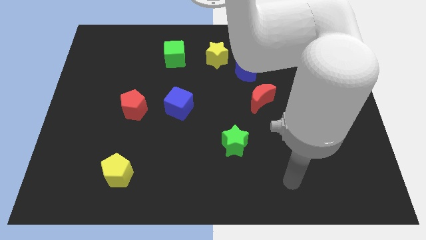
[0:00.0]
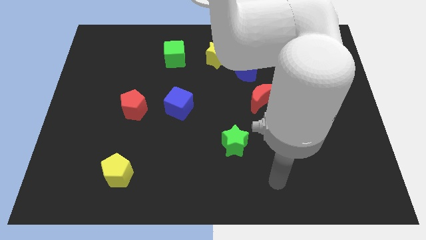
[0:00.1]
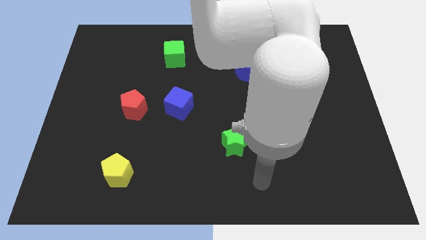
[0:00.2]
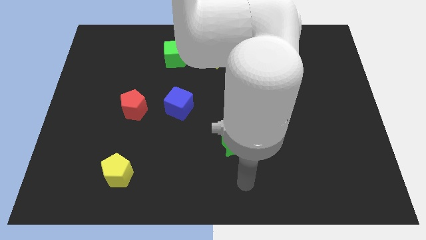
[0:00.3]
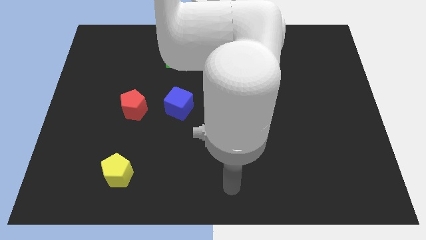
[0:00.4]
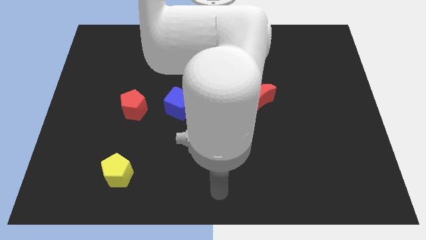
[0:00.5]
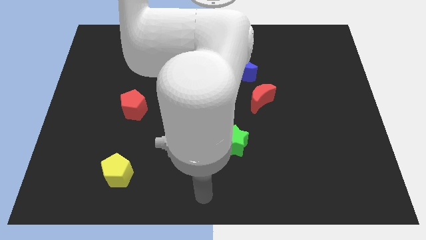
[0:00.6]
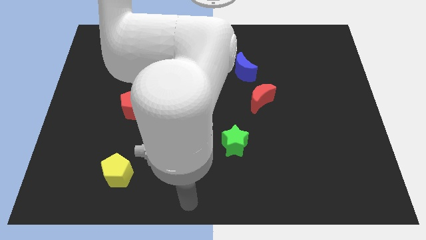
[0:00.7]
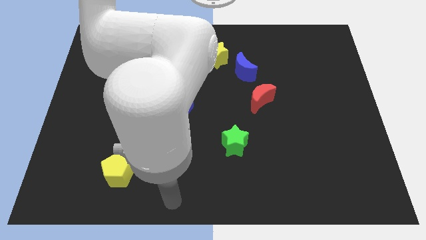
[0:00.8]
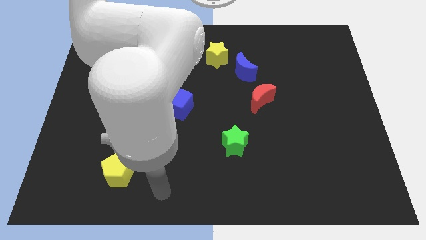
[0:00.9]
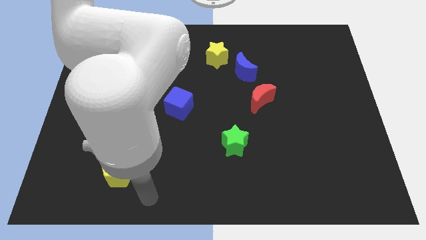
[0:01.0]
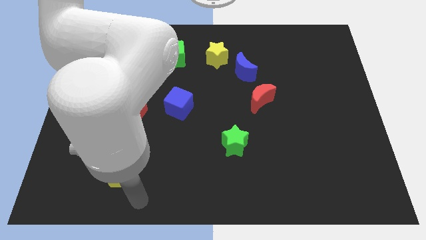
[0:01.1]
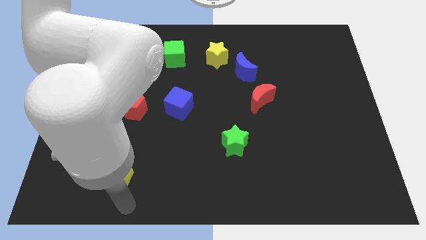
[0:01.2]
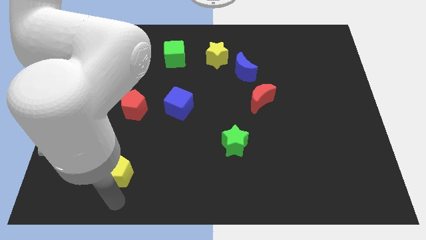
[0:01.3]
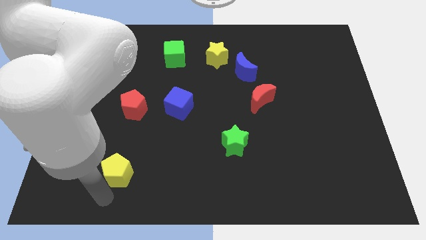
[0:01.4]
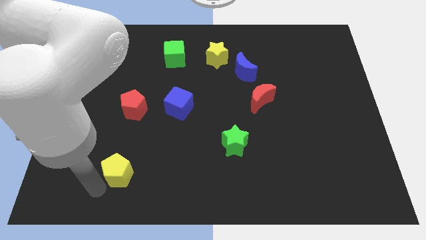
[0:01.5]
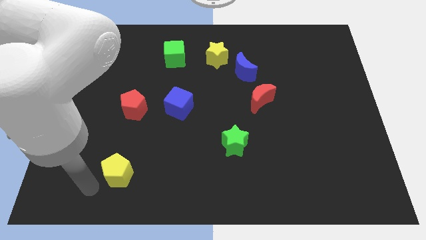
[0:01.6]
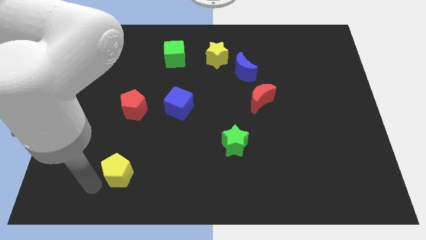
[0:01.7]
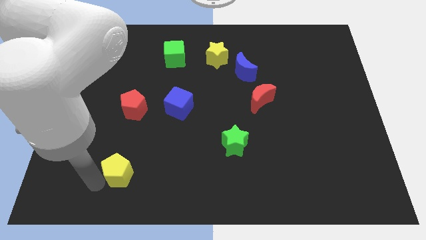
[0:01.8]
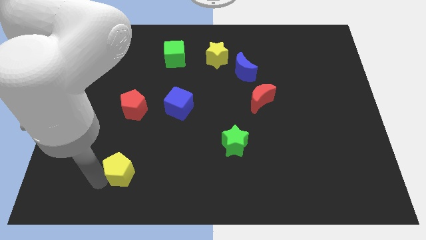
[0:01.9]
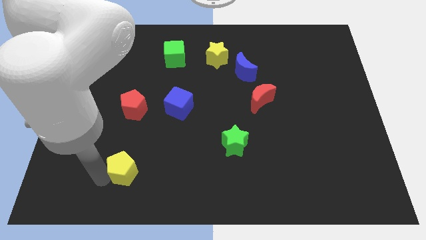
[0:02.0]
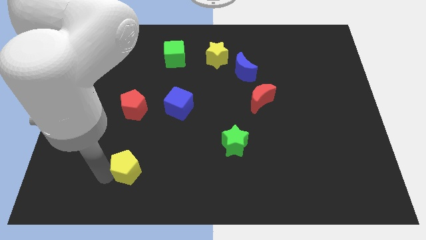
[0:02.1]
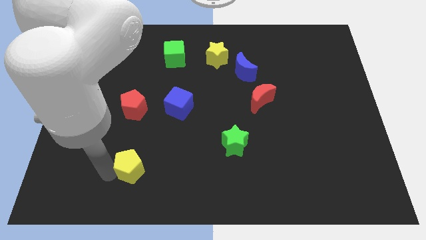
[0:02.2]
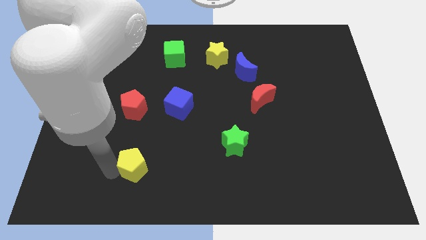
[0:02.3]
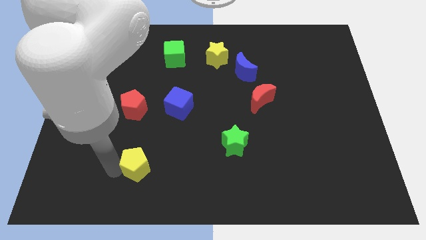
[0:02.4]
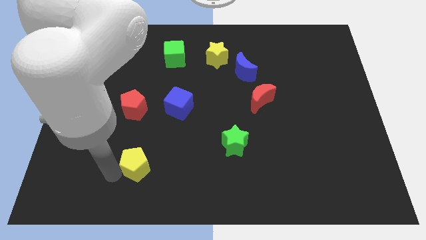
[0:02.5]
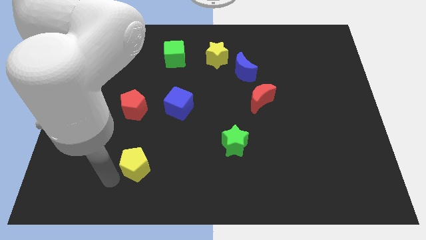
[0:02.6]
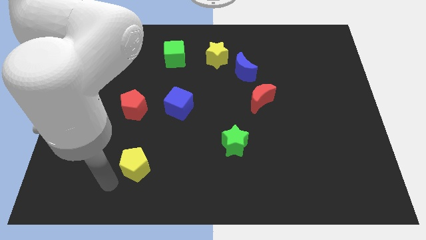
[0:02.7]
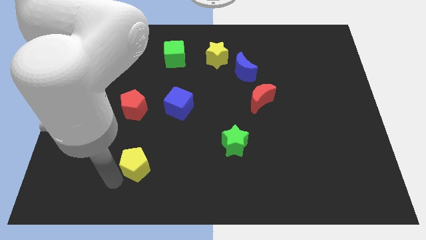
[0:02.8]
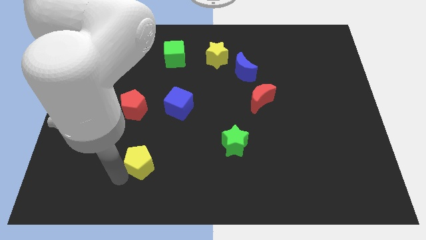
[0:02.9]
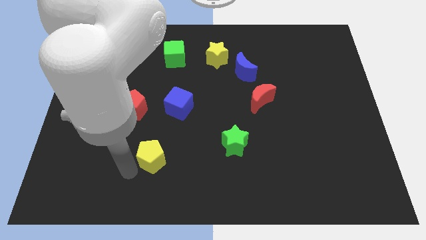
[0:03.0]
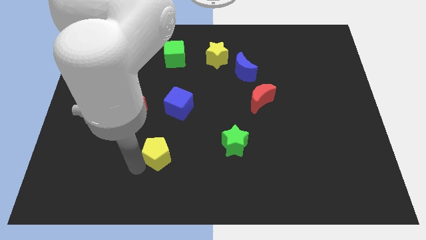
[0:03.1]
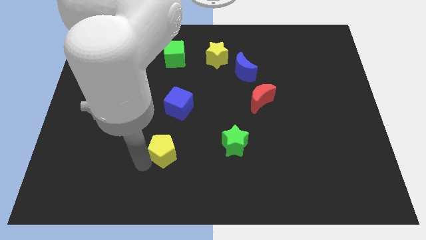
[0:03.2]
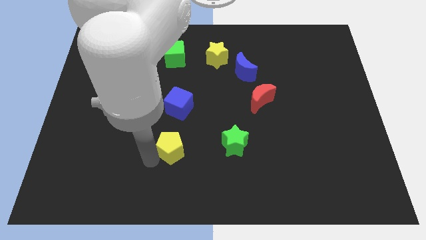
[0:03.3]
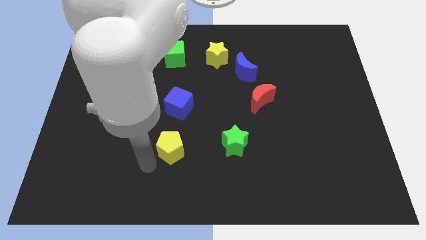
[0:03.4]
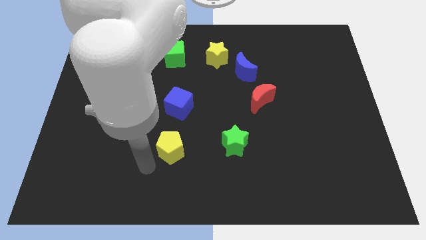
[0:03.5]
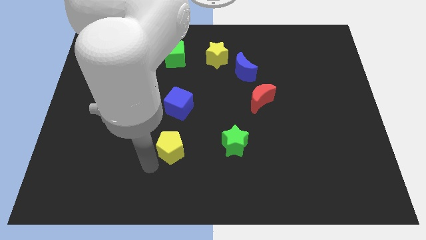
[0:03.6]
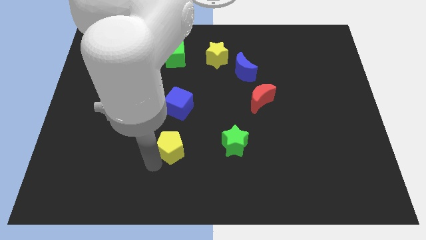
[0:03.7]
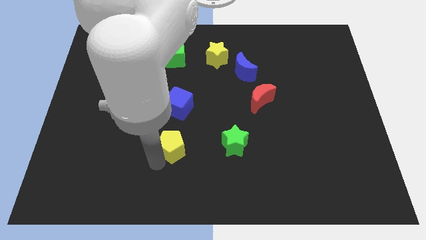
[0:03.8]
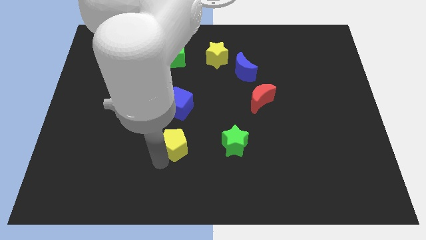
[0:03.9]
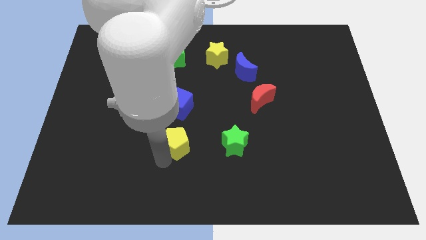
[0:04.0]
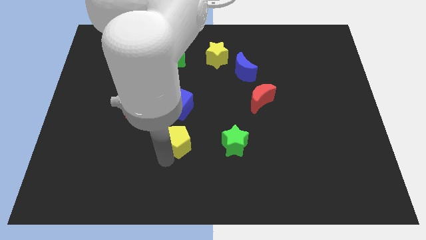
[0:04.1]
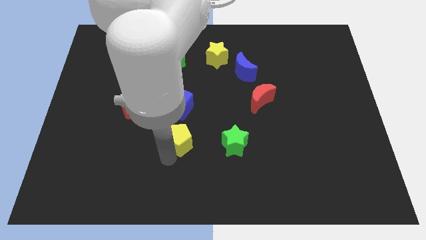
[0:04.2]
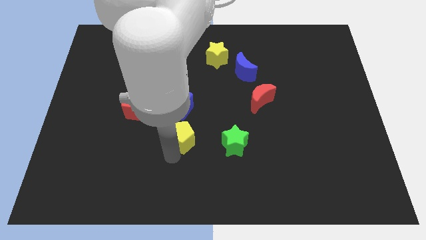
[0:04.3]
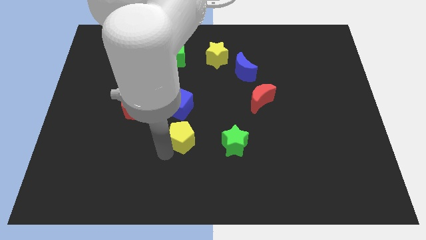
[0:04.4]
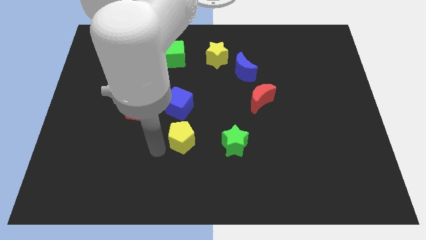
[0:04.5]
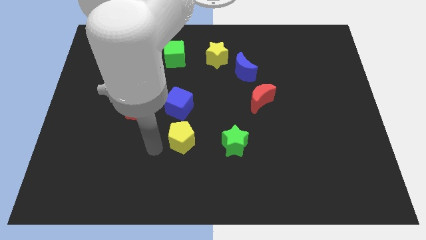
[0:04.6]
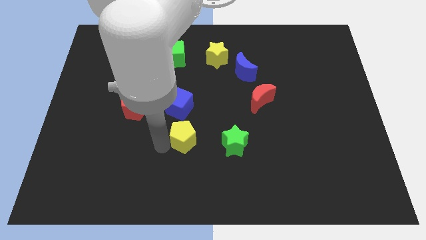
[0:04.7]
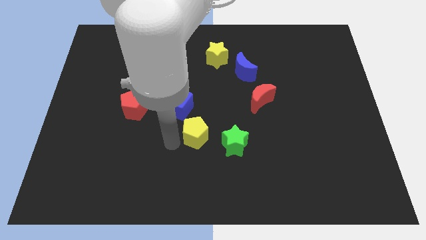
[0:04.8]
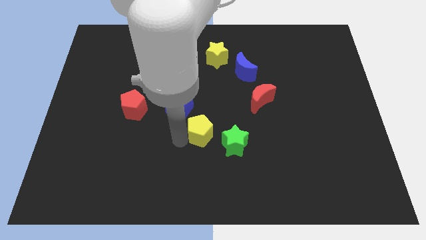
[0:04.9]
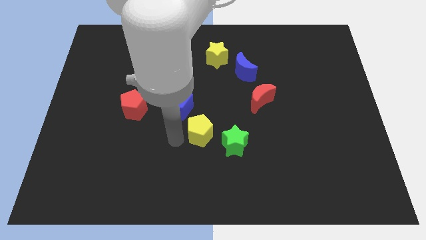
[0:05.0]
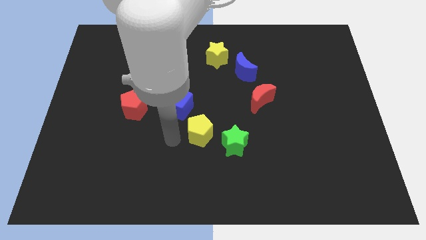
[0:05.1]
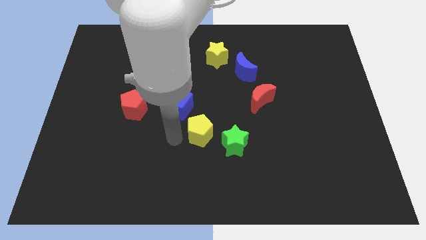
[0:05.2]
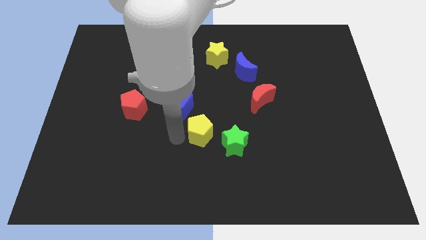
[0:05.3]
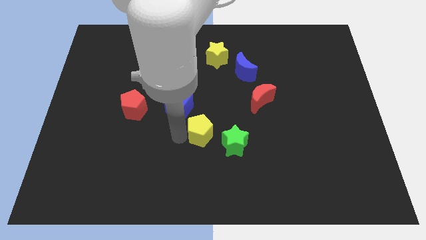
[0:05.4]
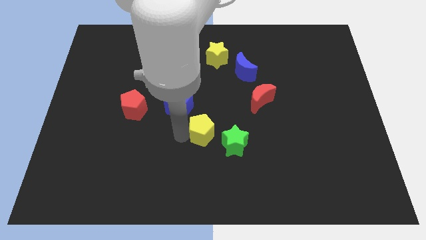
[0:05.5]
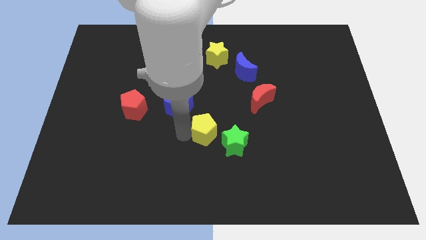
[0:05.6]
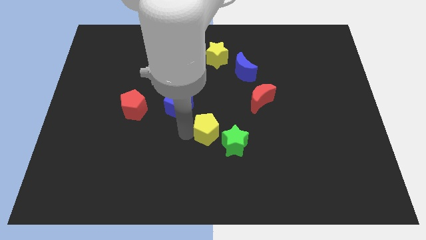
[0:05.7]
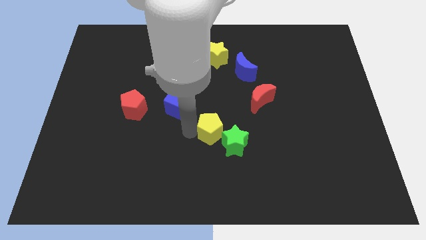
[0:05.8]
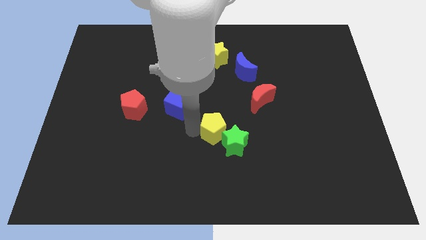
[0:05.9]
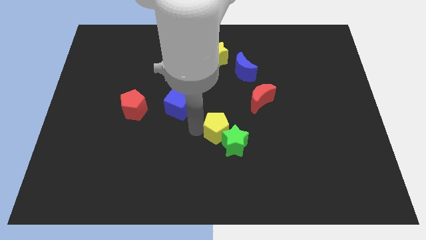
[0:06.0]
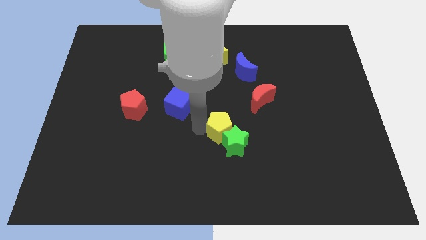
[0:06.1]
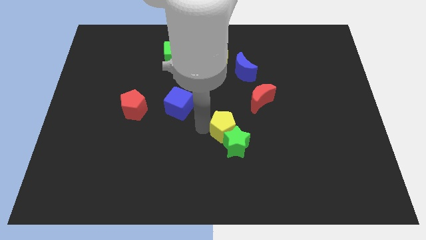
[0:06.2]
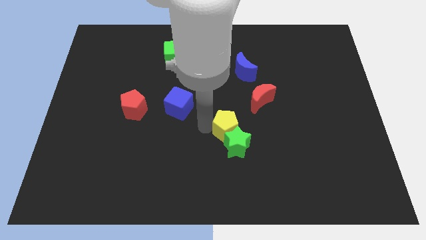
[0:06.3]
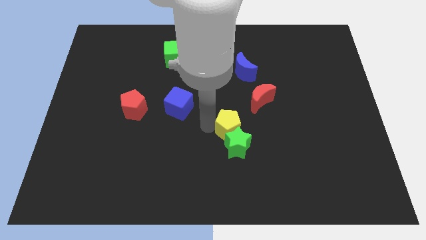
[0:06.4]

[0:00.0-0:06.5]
slide the yellow pentagon to the top right side of the green star

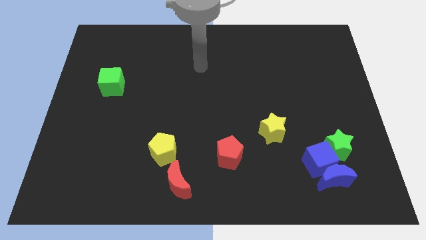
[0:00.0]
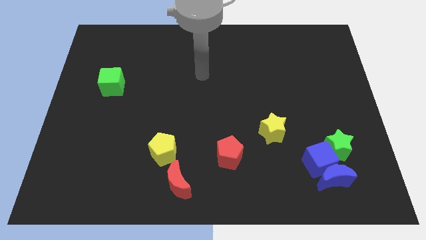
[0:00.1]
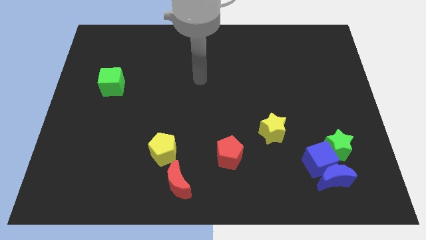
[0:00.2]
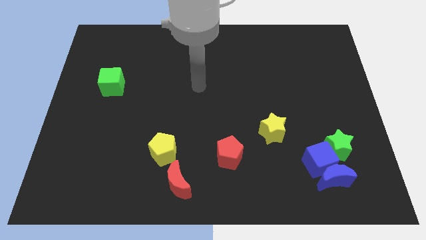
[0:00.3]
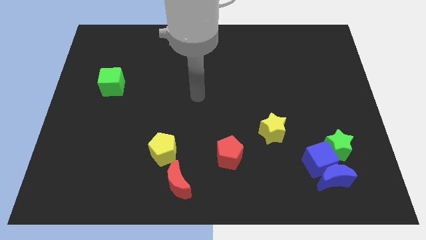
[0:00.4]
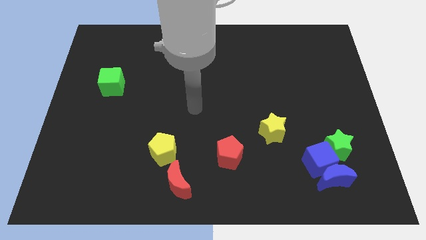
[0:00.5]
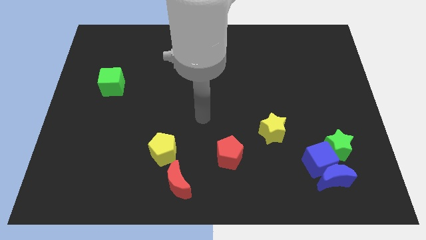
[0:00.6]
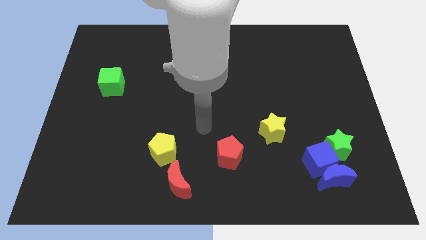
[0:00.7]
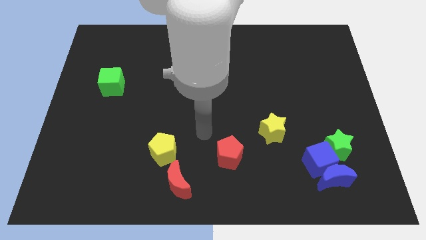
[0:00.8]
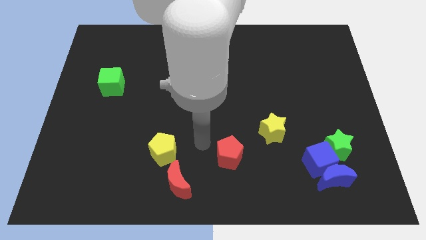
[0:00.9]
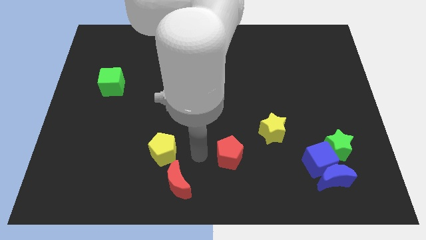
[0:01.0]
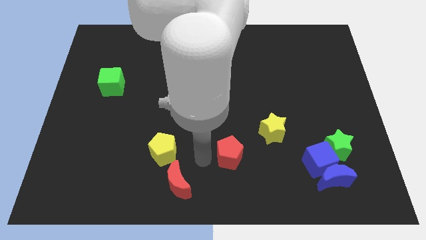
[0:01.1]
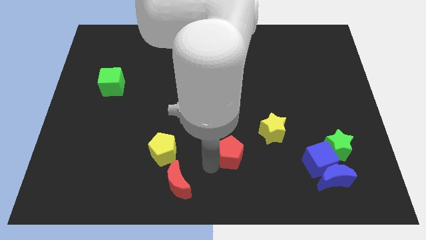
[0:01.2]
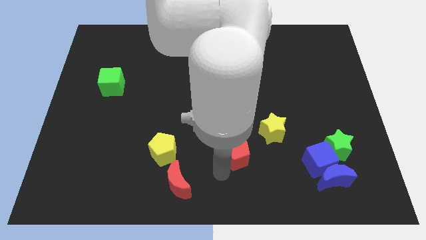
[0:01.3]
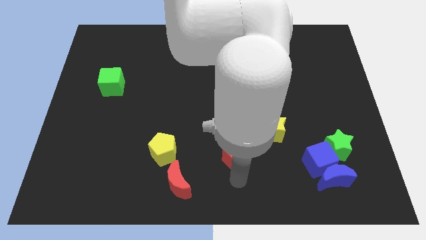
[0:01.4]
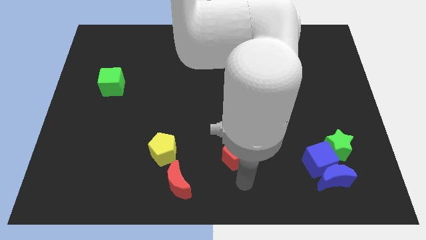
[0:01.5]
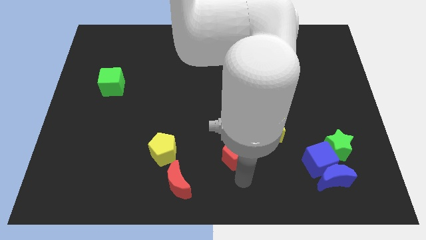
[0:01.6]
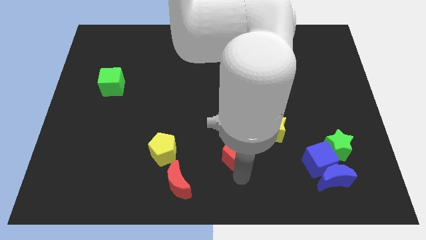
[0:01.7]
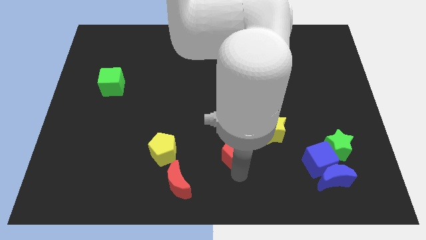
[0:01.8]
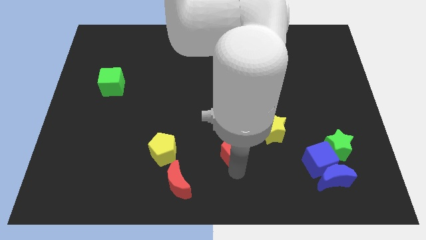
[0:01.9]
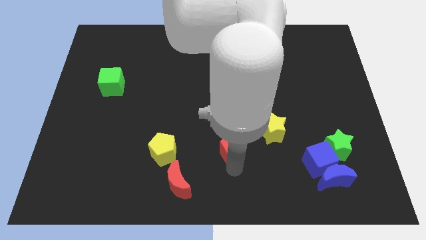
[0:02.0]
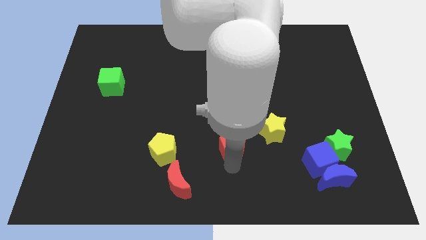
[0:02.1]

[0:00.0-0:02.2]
move the red pentagon to the left side of the yellow star
